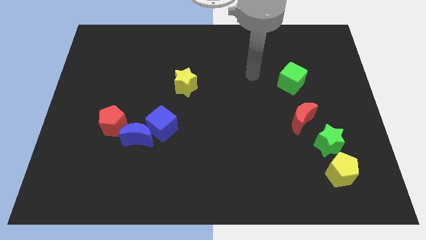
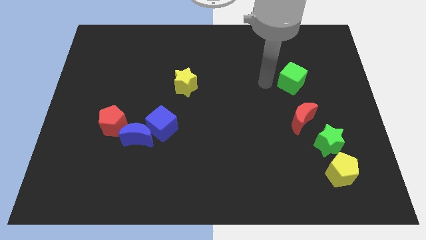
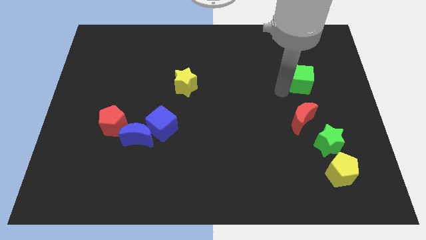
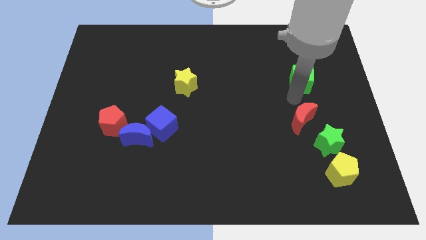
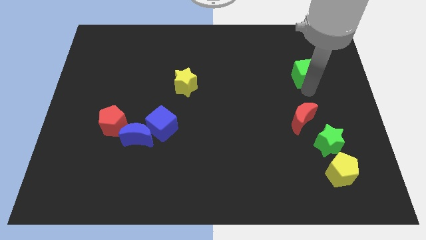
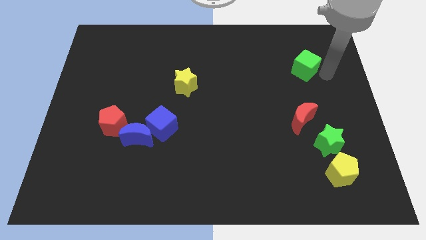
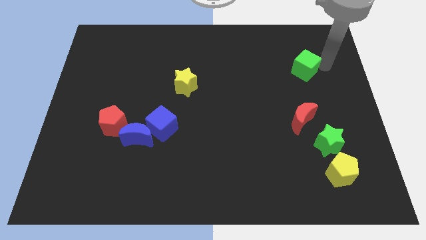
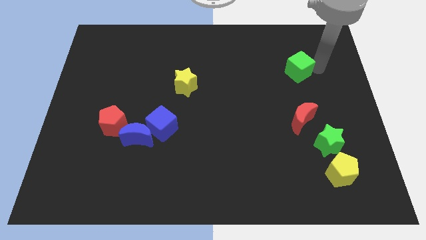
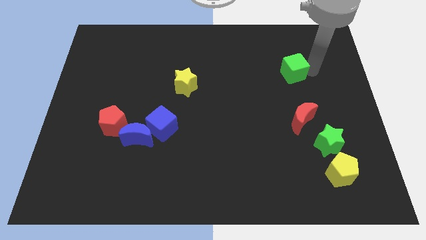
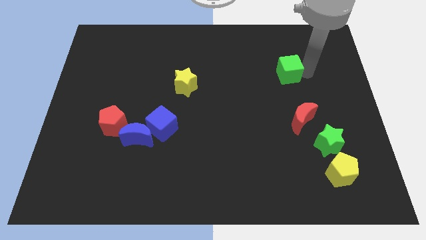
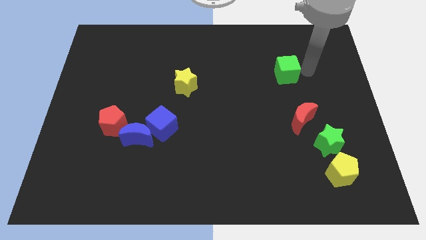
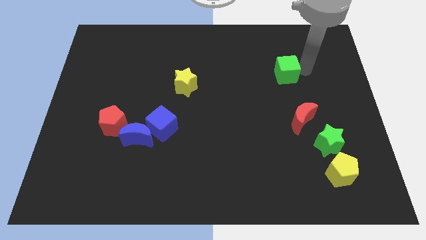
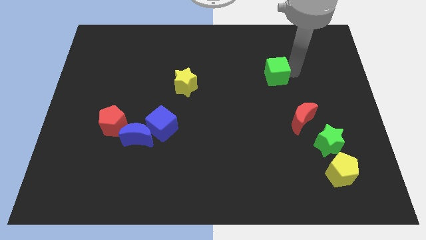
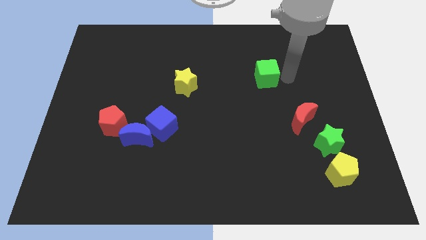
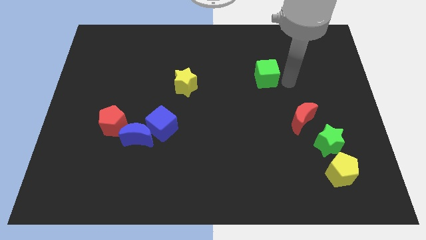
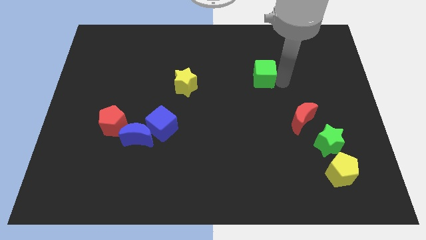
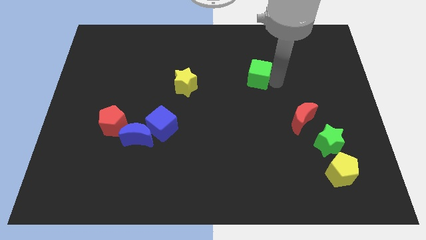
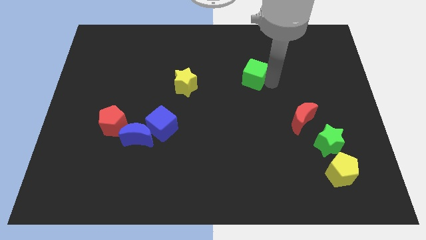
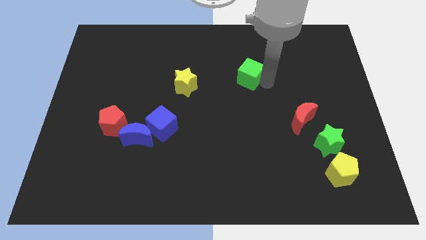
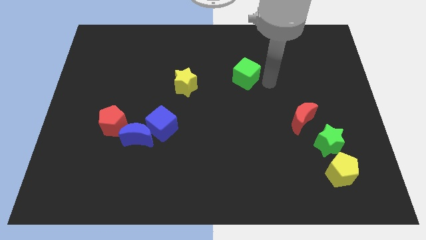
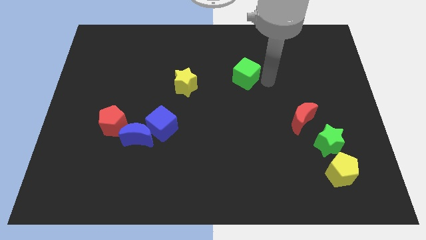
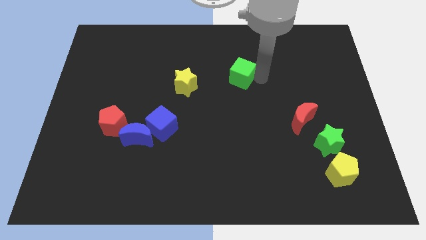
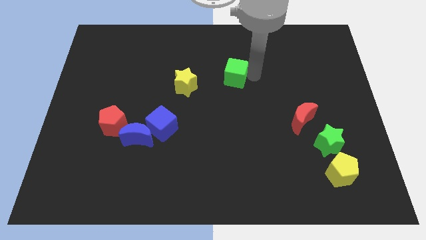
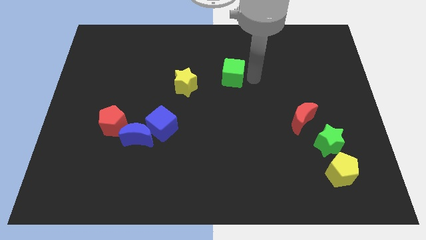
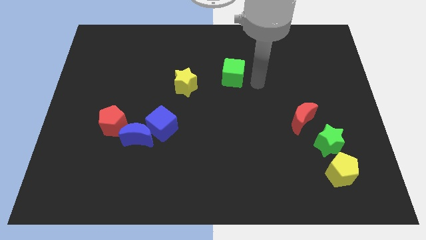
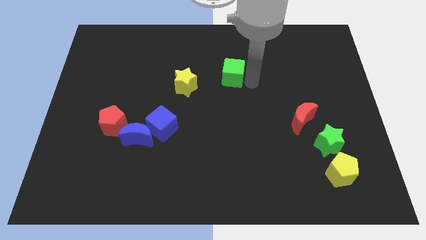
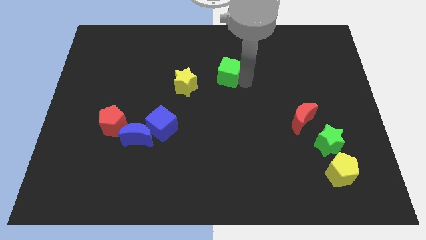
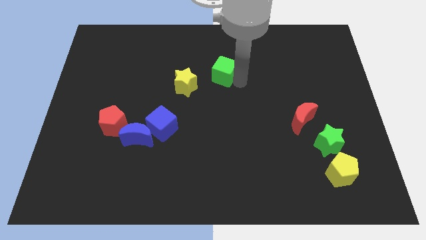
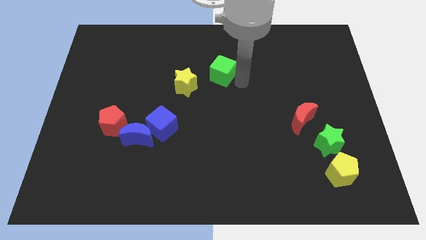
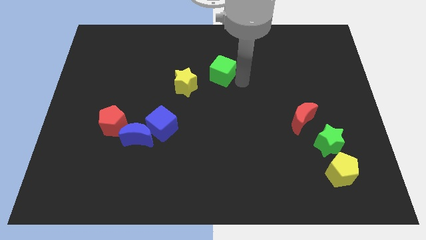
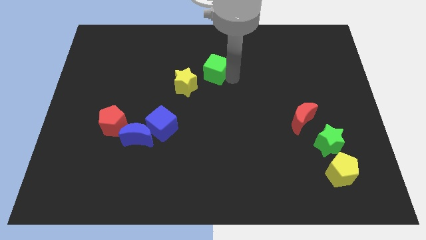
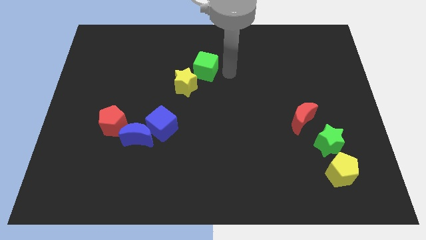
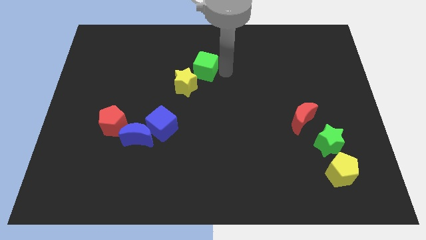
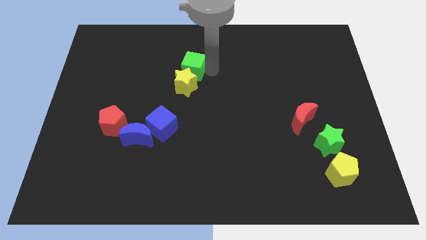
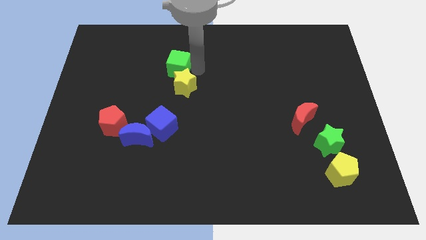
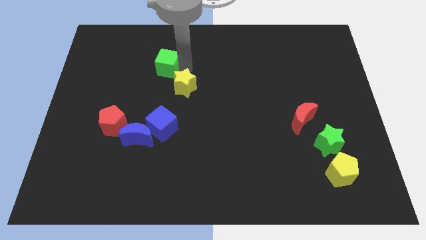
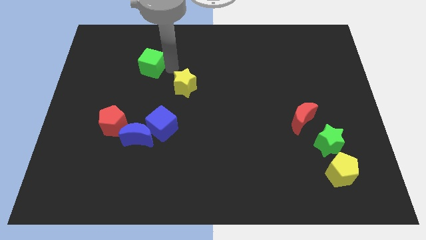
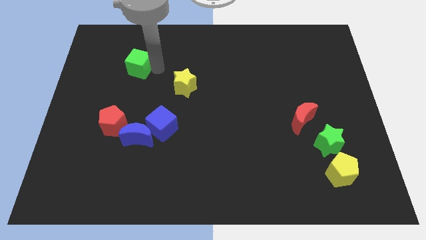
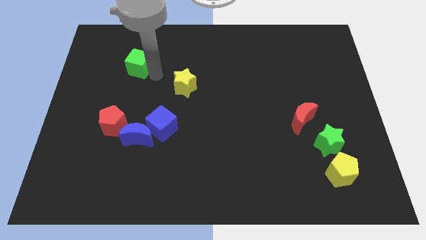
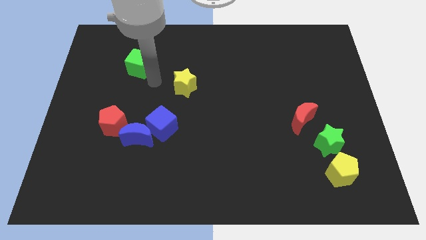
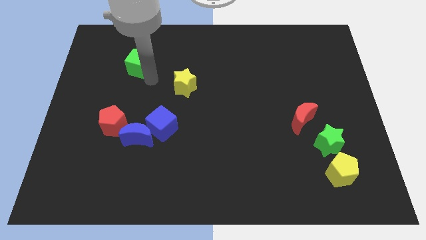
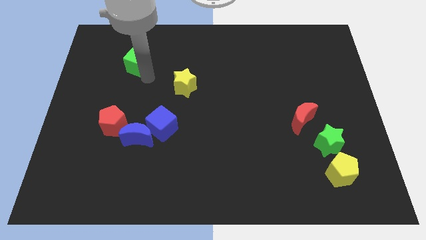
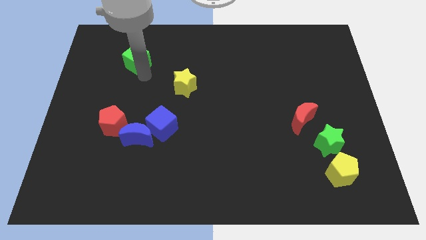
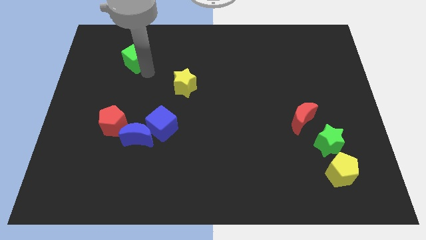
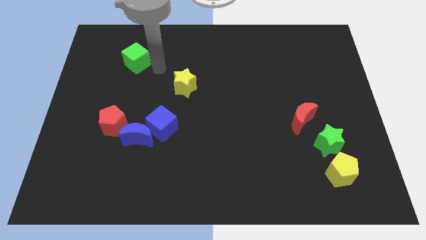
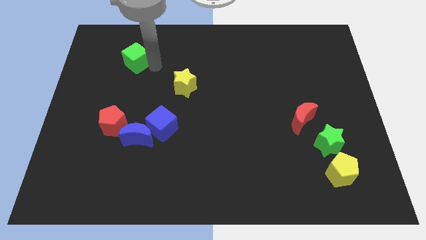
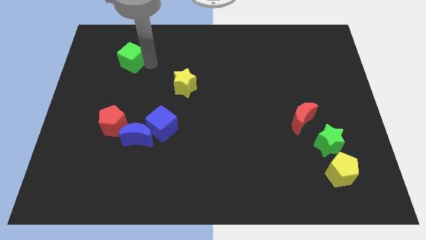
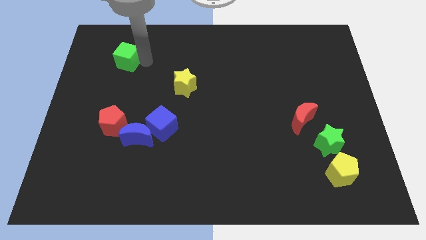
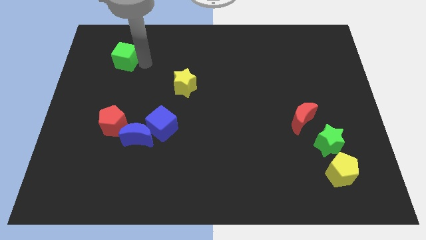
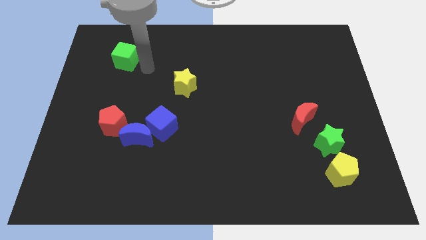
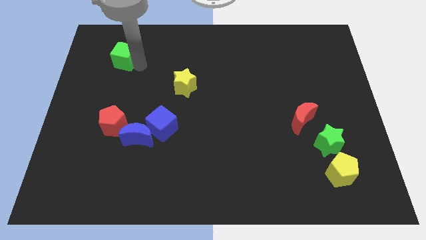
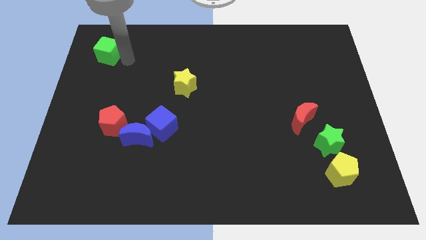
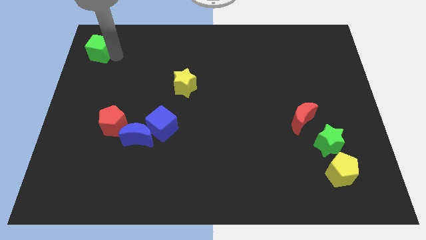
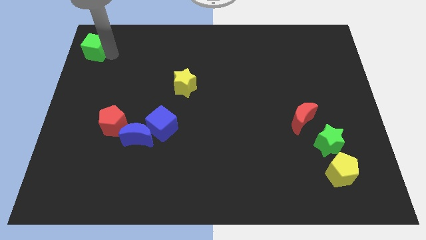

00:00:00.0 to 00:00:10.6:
push the green cube to the top left

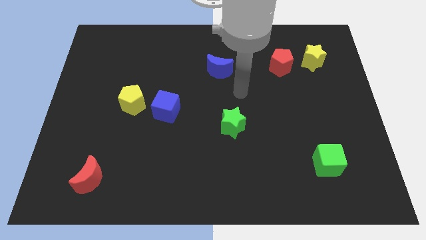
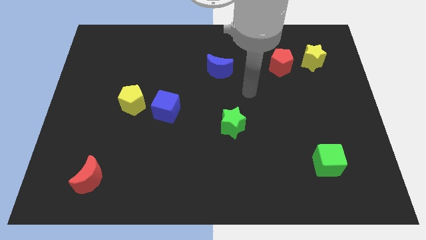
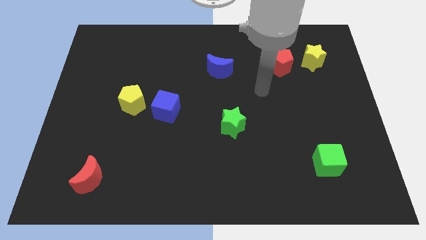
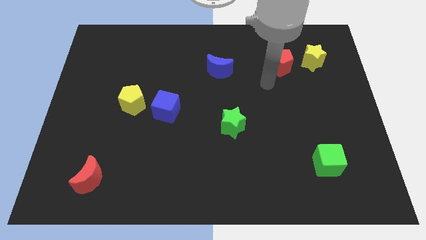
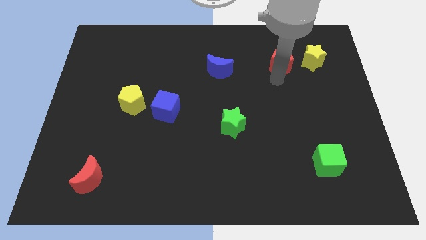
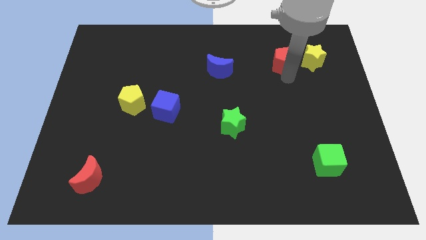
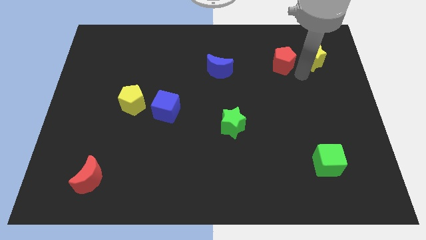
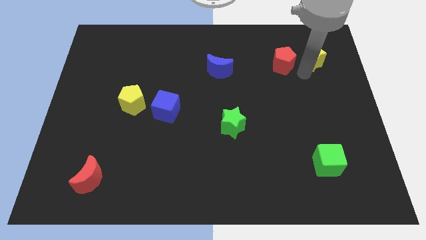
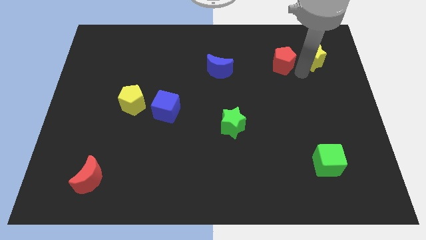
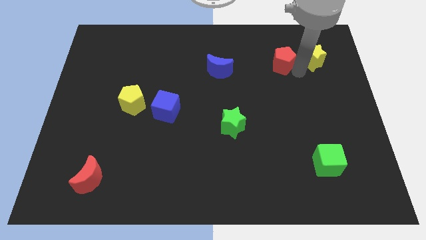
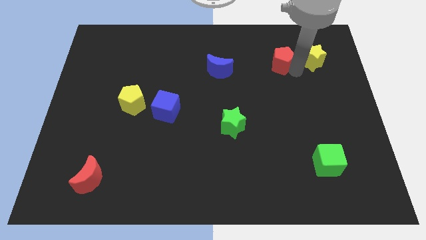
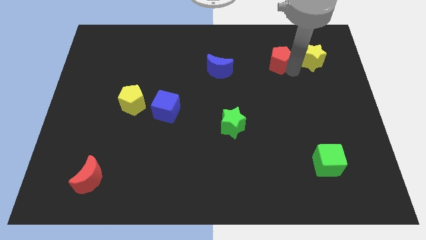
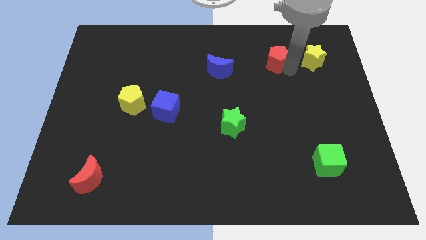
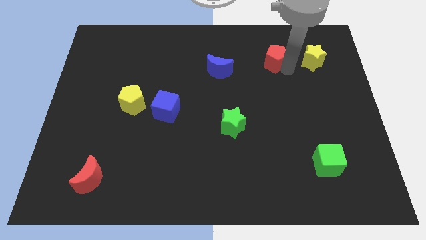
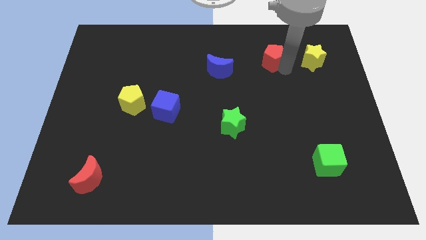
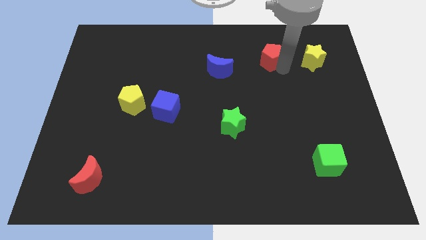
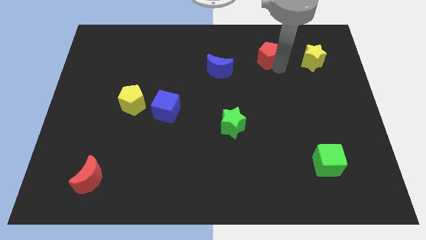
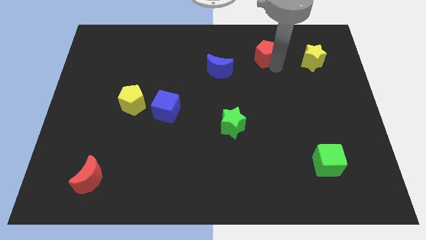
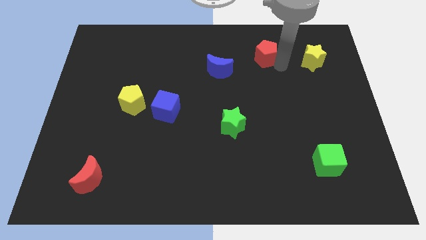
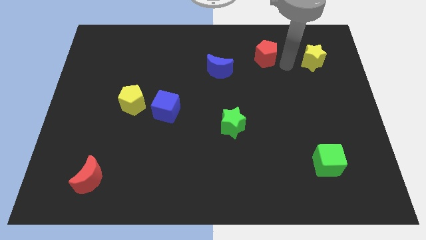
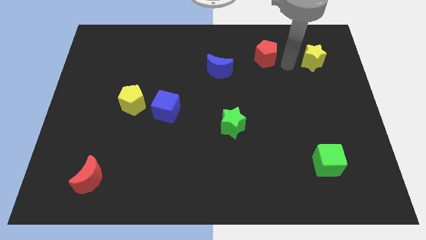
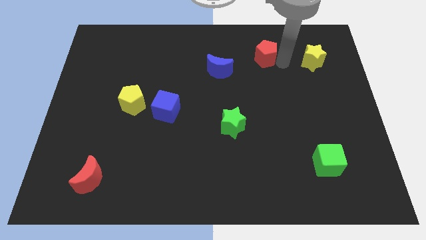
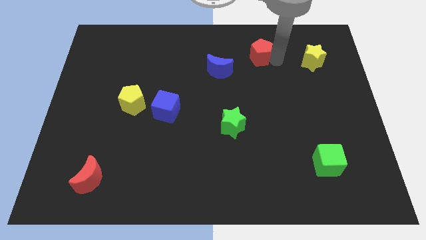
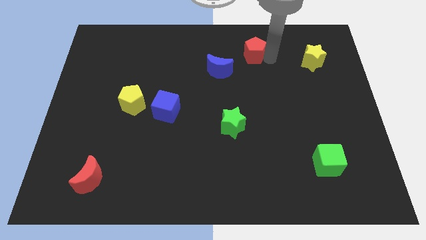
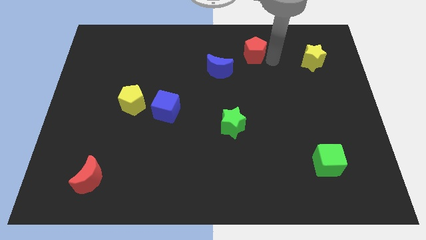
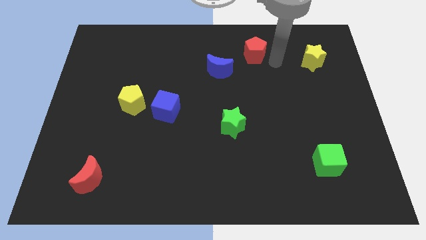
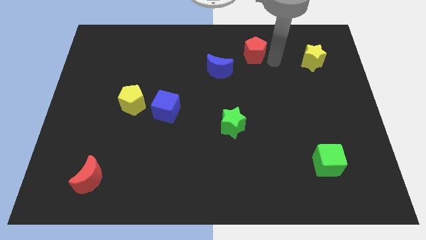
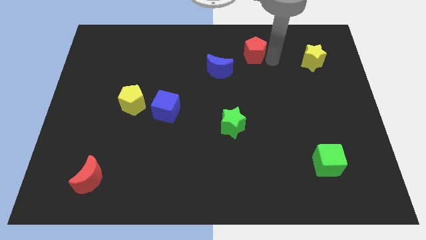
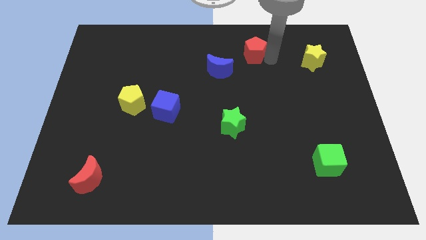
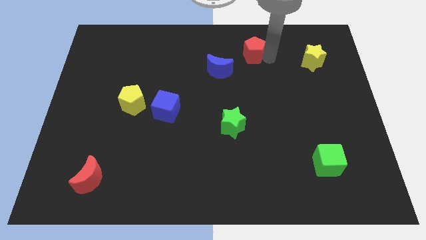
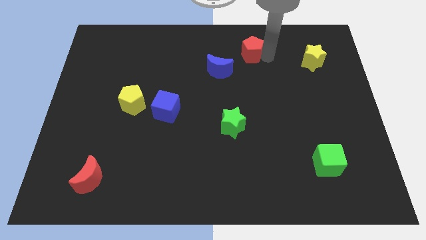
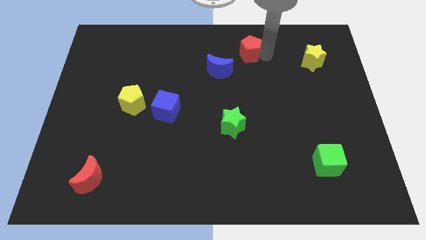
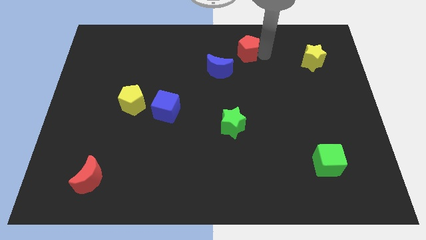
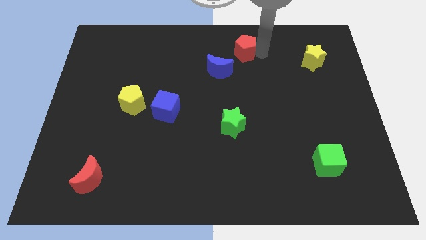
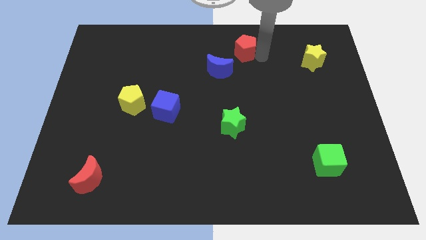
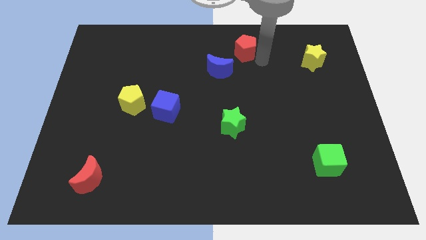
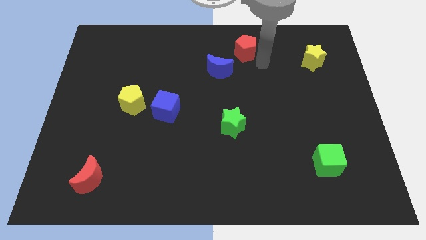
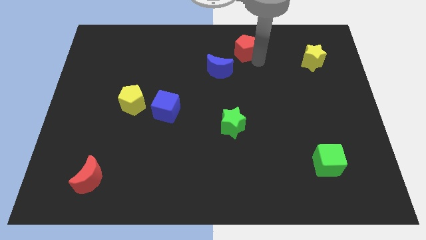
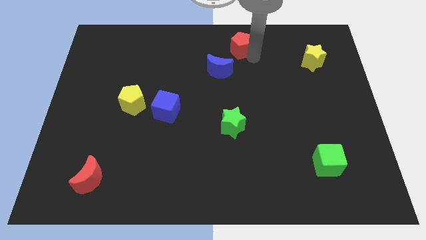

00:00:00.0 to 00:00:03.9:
slide the red pentagon to the towards your base
